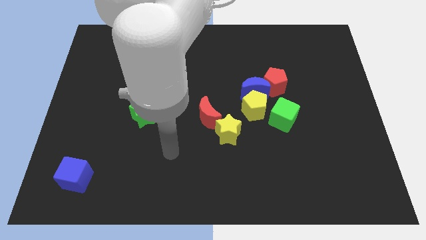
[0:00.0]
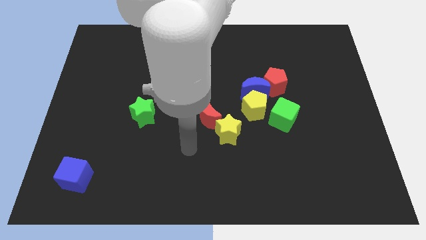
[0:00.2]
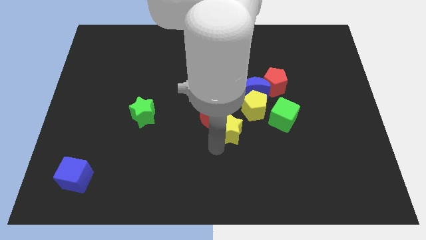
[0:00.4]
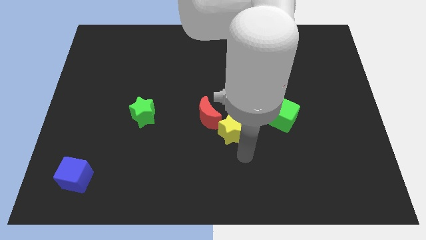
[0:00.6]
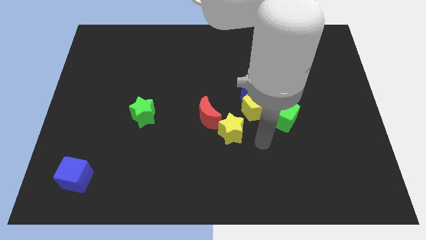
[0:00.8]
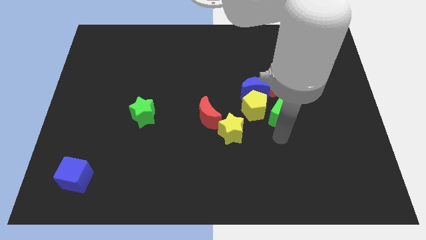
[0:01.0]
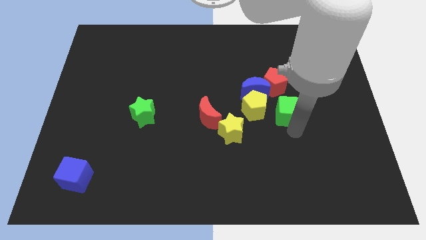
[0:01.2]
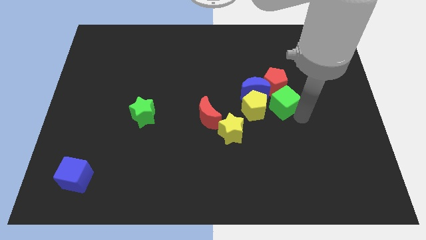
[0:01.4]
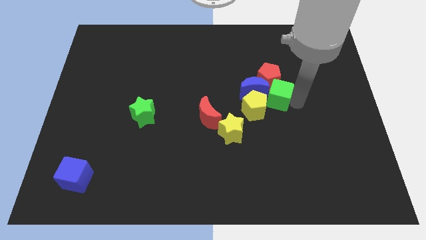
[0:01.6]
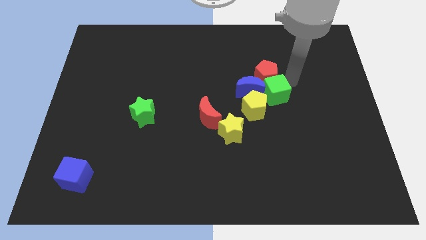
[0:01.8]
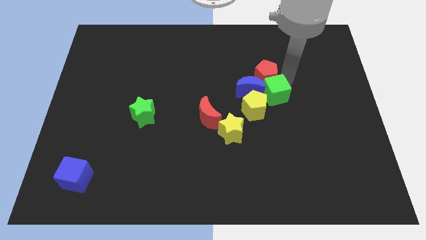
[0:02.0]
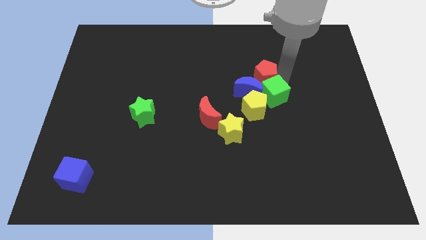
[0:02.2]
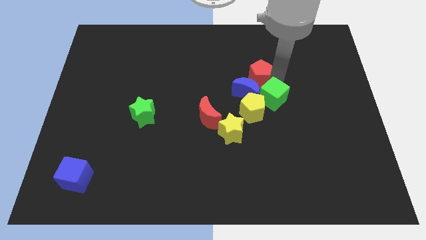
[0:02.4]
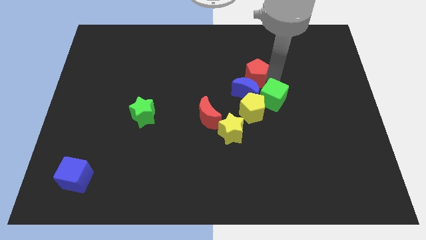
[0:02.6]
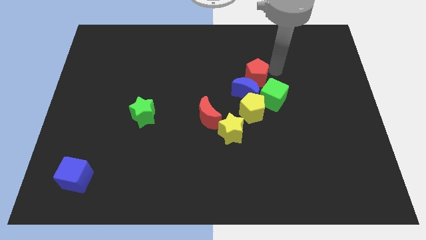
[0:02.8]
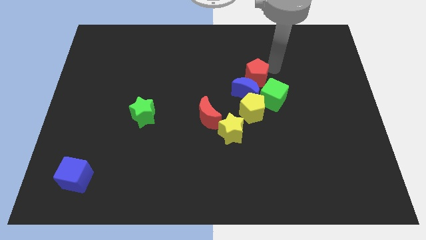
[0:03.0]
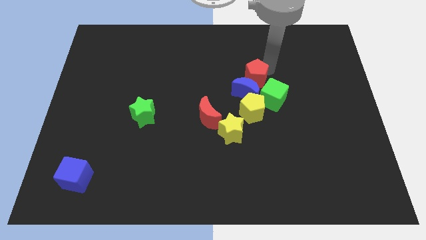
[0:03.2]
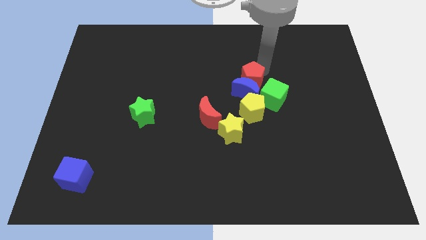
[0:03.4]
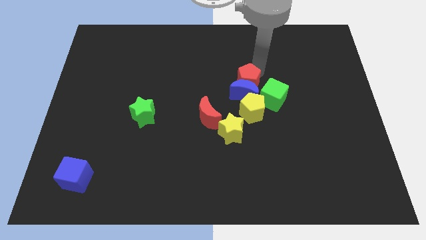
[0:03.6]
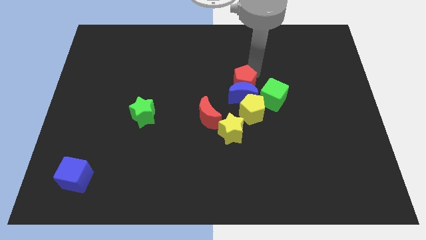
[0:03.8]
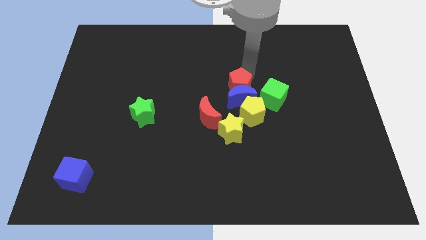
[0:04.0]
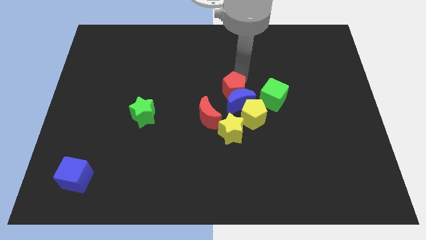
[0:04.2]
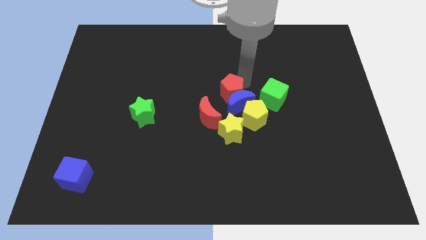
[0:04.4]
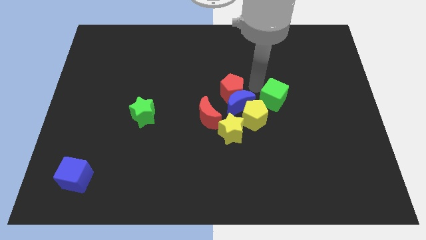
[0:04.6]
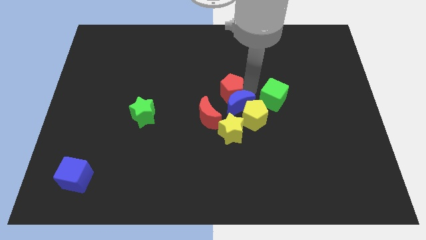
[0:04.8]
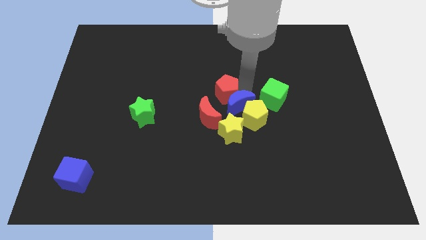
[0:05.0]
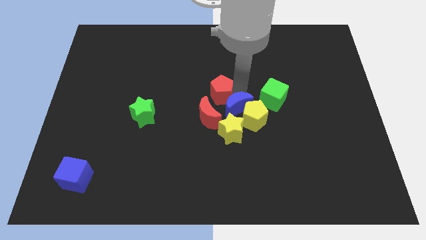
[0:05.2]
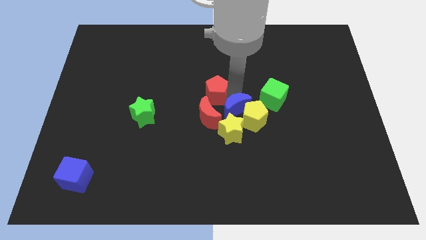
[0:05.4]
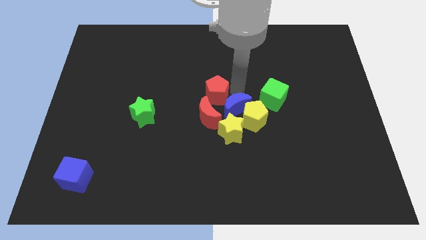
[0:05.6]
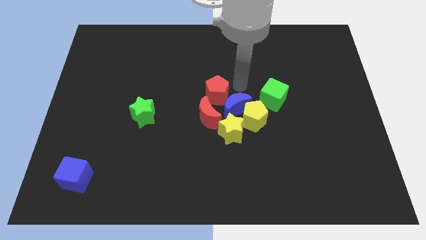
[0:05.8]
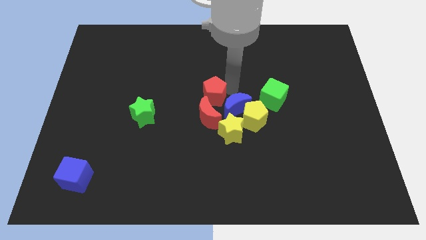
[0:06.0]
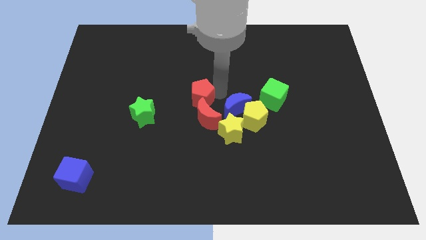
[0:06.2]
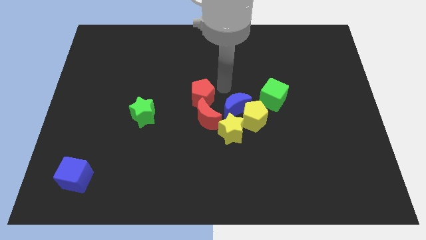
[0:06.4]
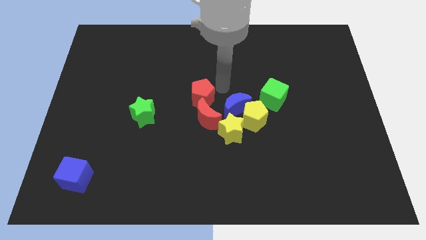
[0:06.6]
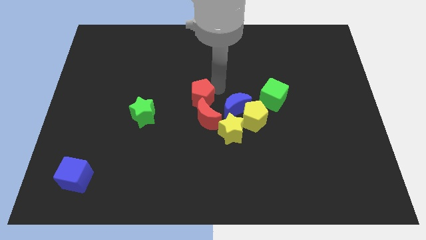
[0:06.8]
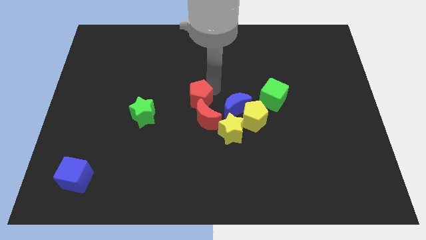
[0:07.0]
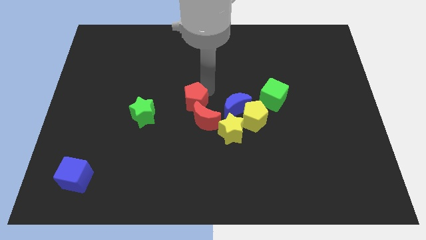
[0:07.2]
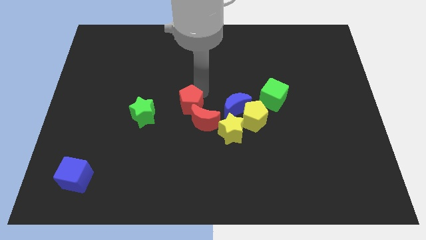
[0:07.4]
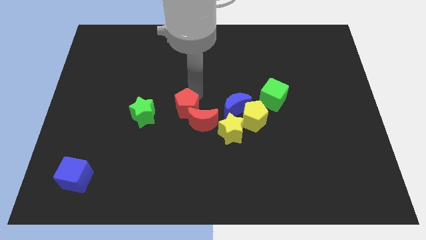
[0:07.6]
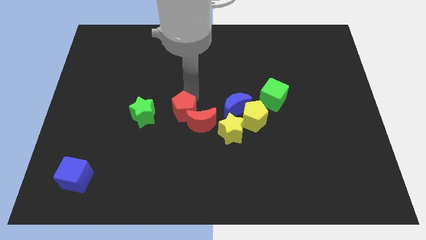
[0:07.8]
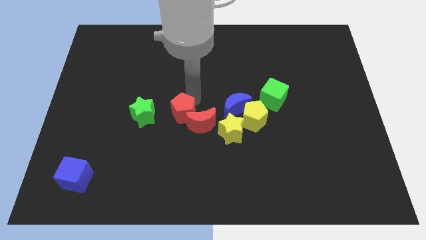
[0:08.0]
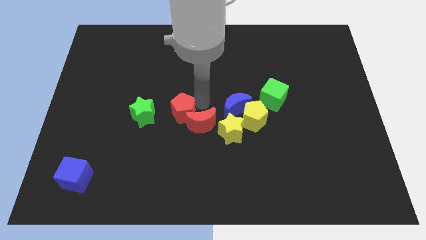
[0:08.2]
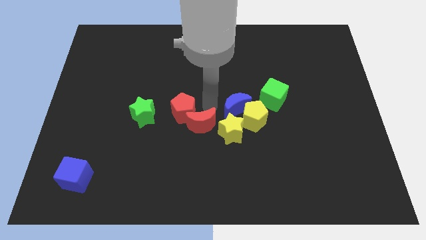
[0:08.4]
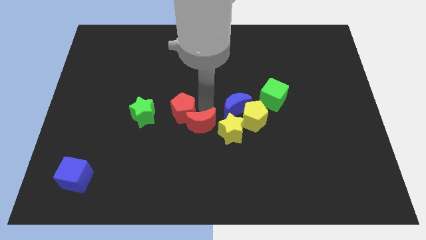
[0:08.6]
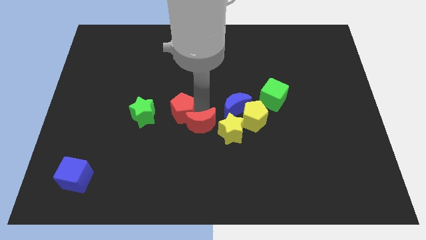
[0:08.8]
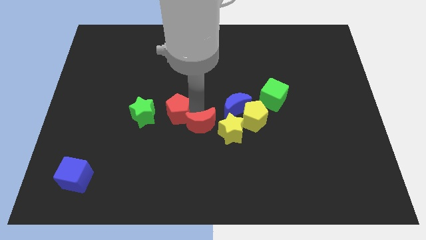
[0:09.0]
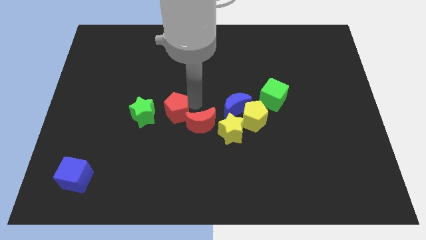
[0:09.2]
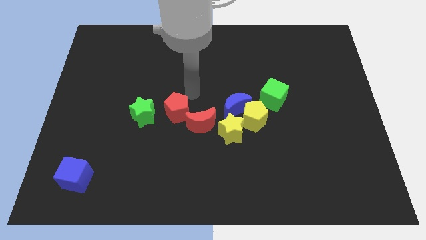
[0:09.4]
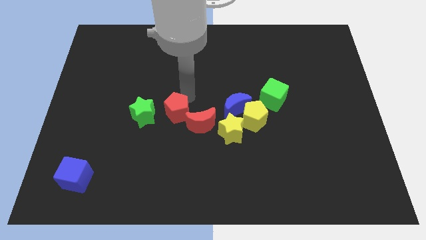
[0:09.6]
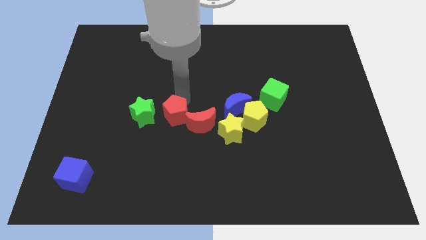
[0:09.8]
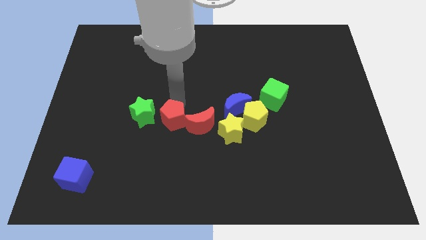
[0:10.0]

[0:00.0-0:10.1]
slide the red pentagon downwards and to the left

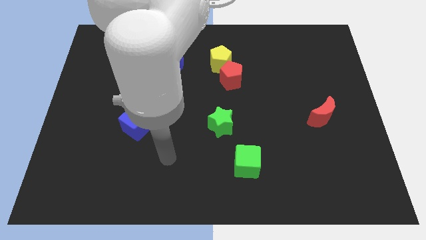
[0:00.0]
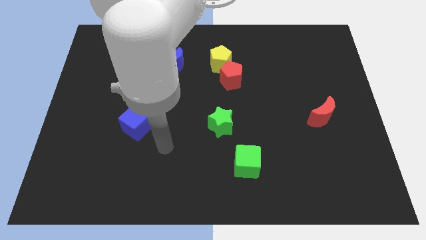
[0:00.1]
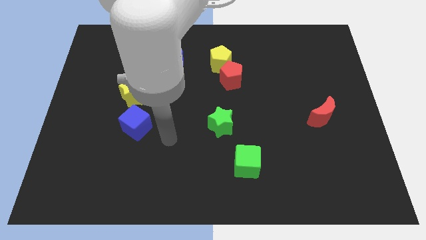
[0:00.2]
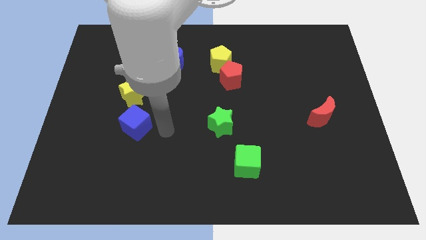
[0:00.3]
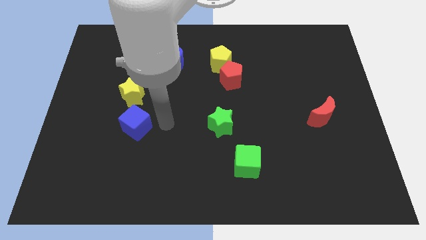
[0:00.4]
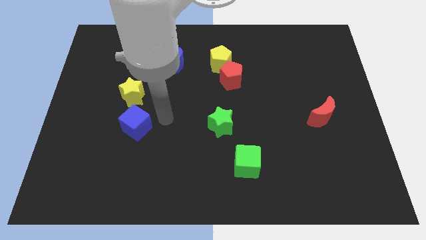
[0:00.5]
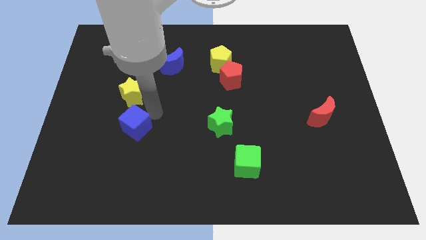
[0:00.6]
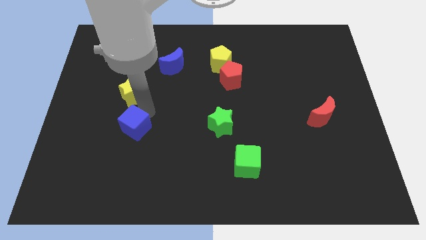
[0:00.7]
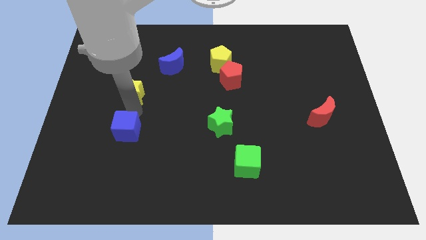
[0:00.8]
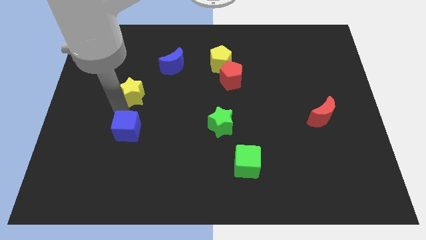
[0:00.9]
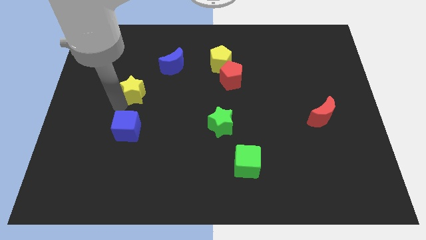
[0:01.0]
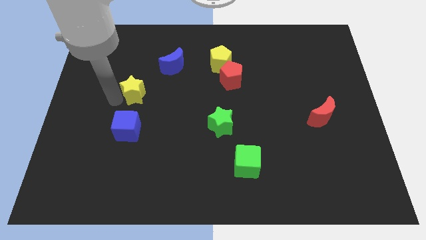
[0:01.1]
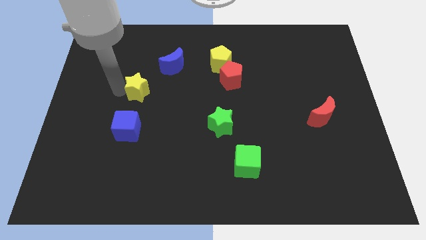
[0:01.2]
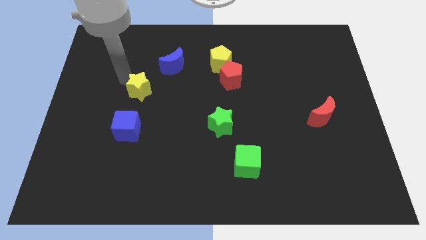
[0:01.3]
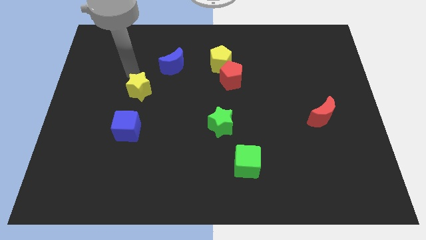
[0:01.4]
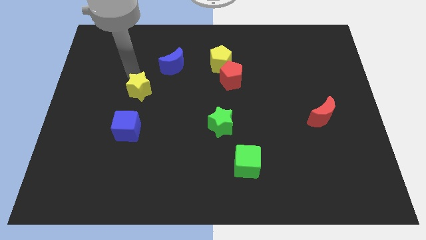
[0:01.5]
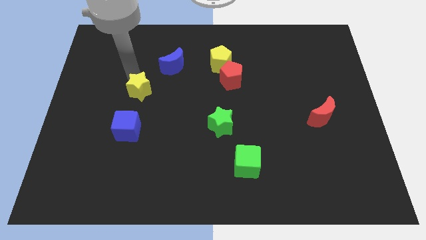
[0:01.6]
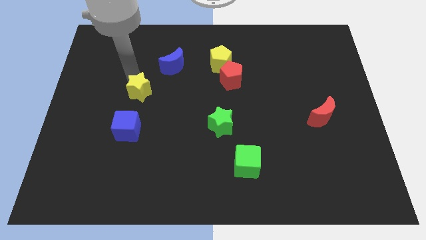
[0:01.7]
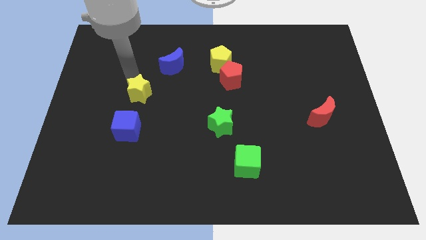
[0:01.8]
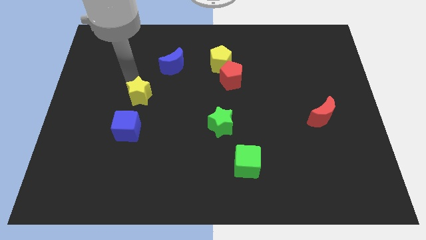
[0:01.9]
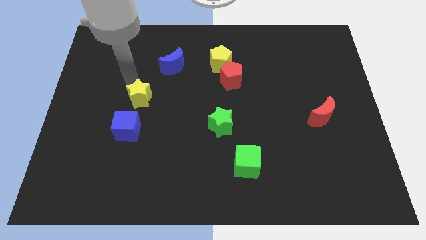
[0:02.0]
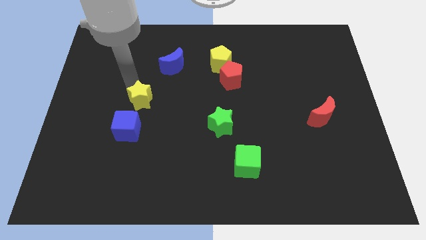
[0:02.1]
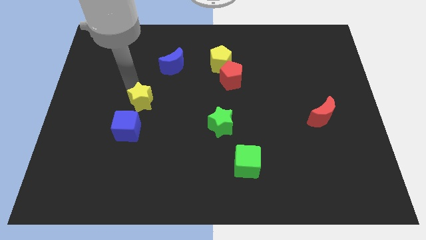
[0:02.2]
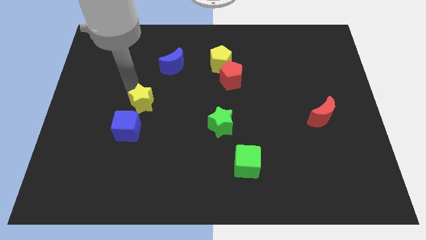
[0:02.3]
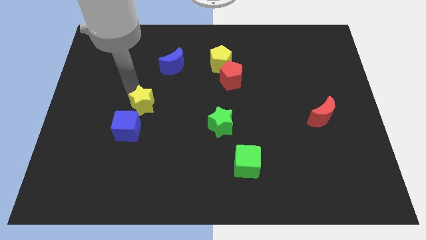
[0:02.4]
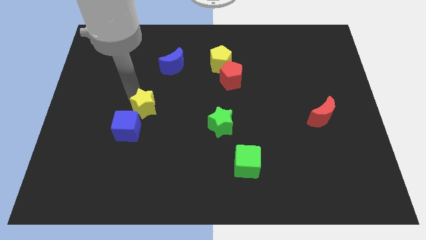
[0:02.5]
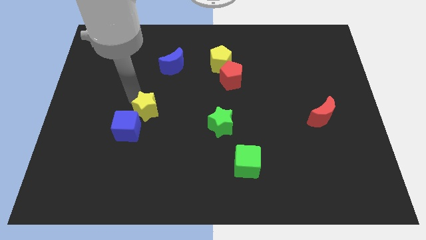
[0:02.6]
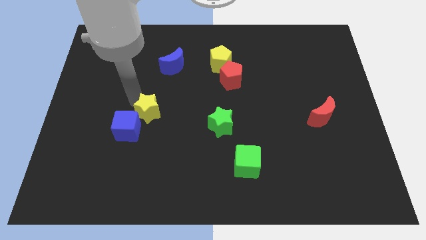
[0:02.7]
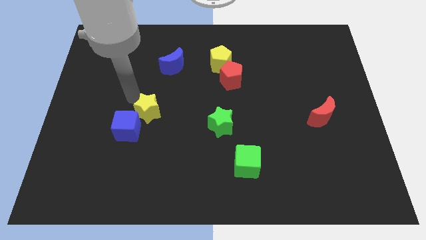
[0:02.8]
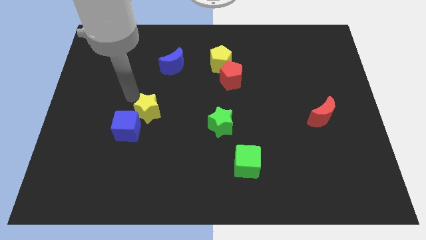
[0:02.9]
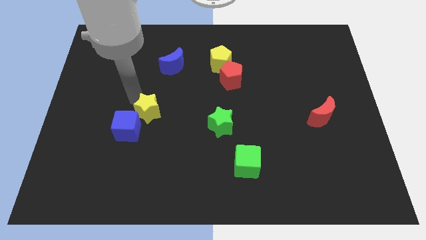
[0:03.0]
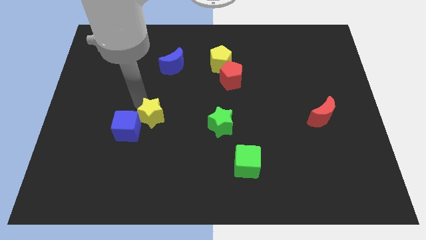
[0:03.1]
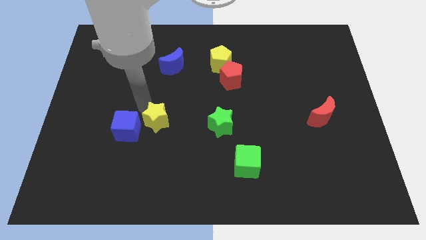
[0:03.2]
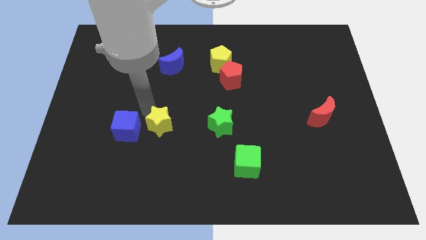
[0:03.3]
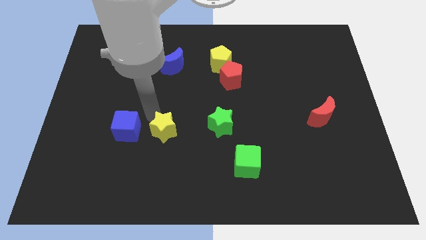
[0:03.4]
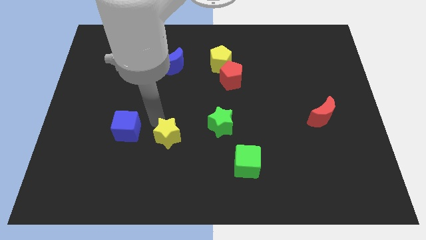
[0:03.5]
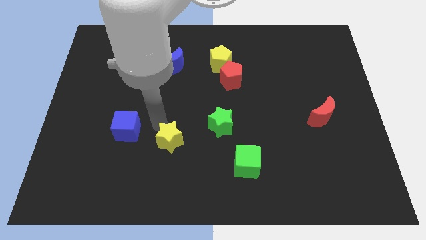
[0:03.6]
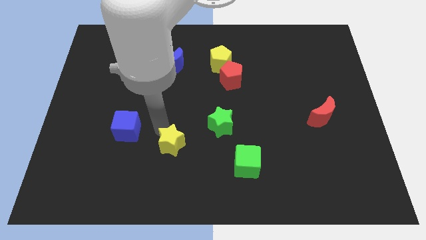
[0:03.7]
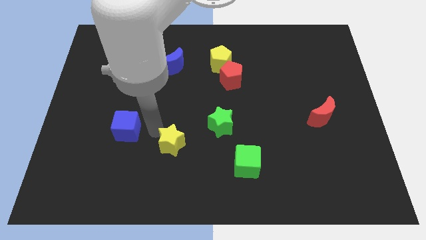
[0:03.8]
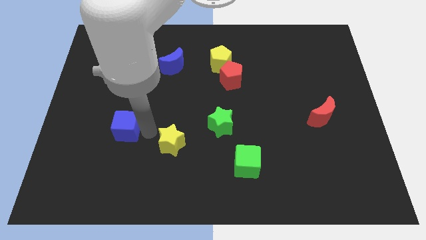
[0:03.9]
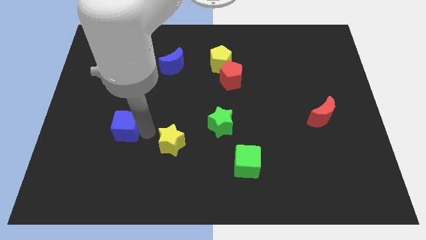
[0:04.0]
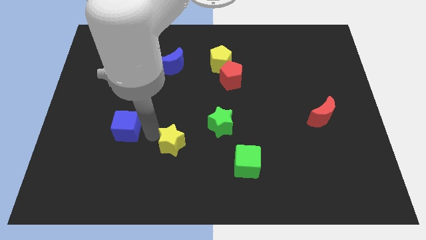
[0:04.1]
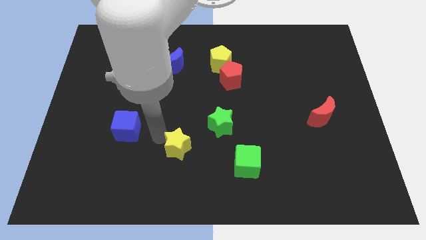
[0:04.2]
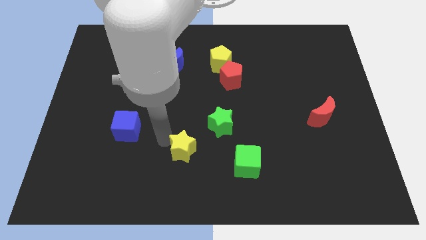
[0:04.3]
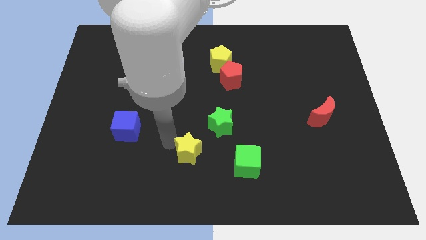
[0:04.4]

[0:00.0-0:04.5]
push the yellow star diagonally downwards and right
